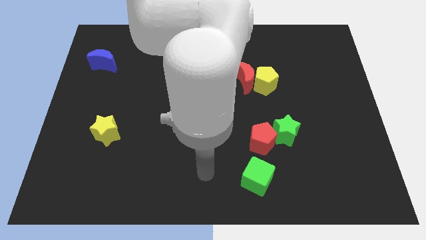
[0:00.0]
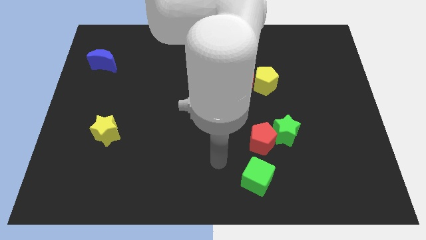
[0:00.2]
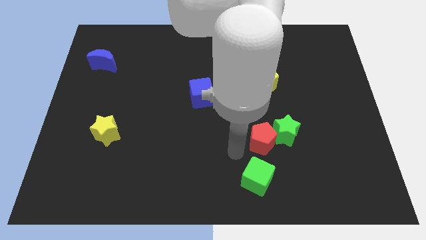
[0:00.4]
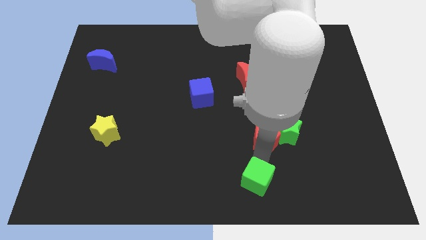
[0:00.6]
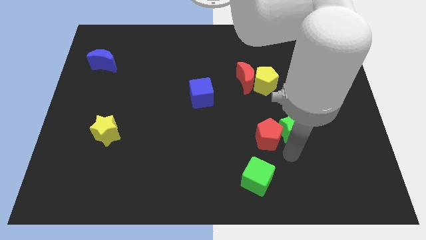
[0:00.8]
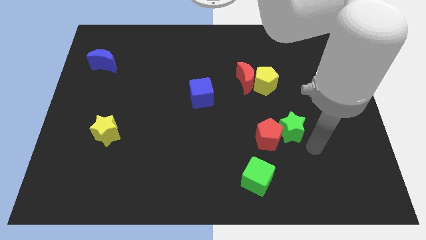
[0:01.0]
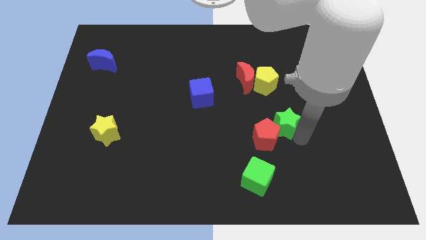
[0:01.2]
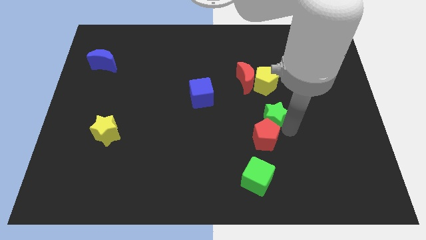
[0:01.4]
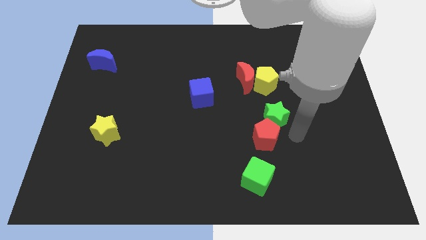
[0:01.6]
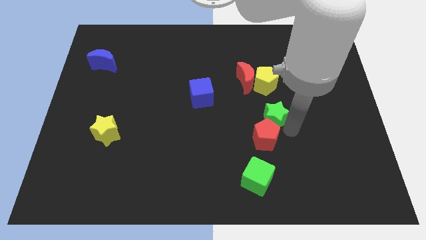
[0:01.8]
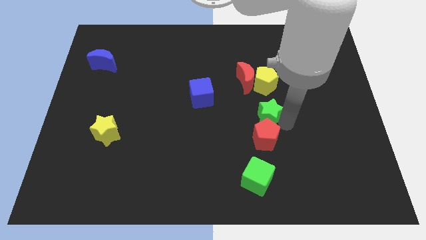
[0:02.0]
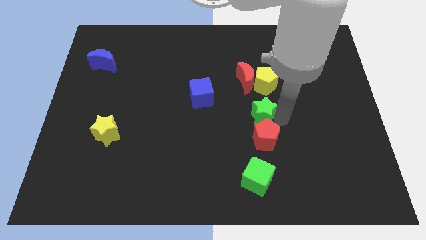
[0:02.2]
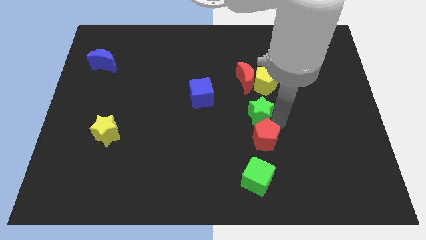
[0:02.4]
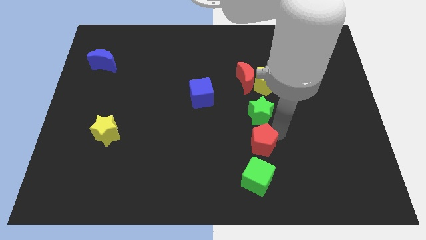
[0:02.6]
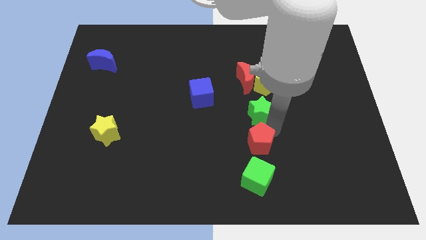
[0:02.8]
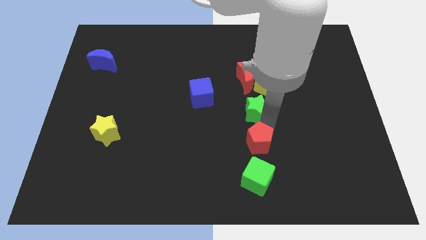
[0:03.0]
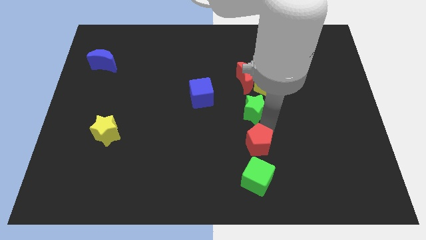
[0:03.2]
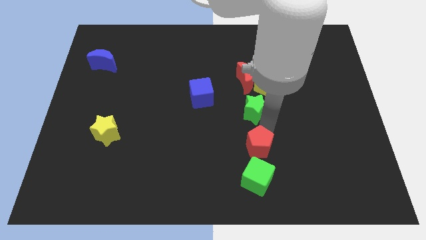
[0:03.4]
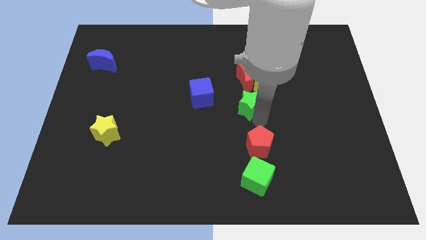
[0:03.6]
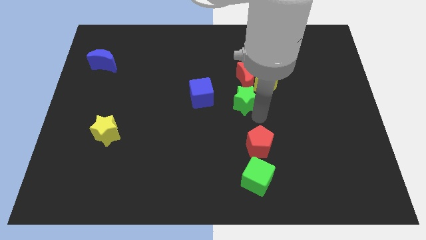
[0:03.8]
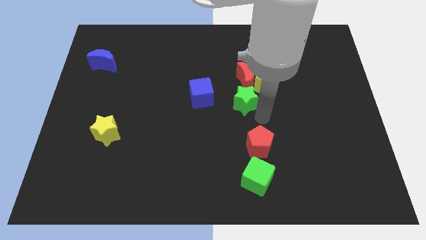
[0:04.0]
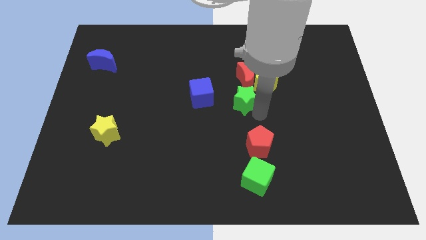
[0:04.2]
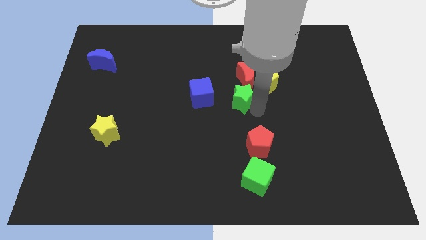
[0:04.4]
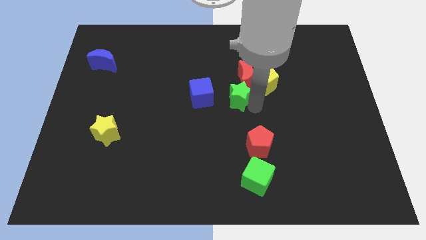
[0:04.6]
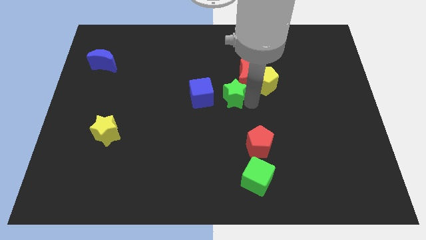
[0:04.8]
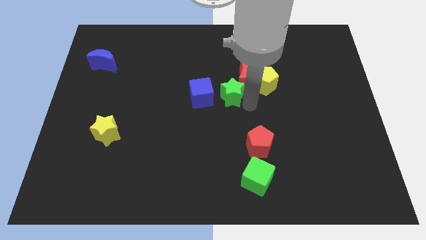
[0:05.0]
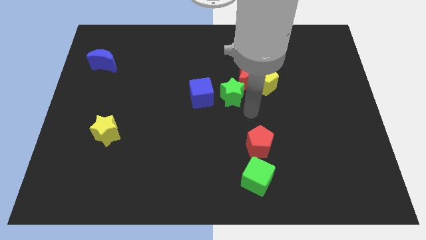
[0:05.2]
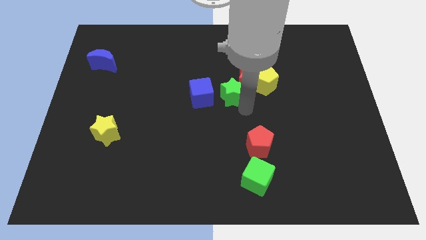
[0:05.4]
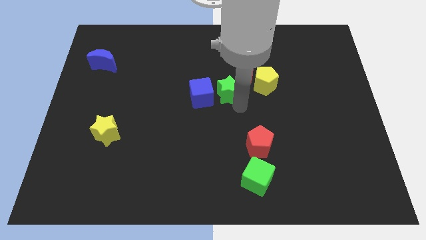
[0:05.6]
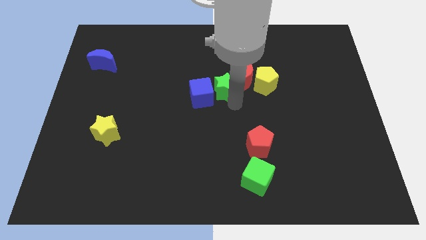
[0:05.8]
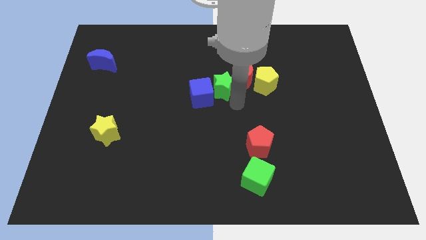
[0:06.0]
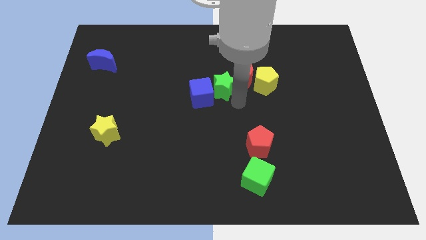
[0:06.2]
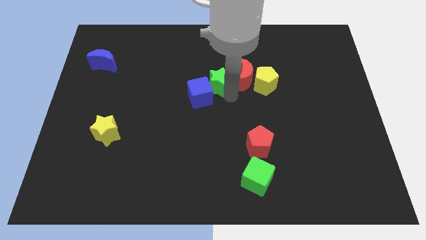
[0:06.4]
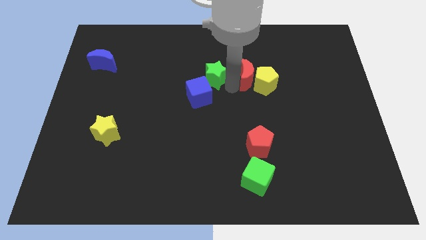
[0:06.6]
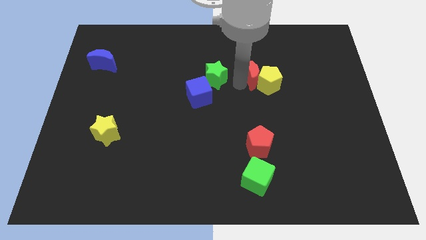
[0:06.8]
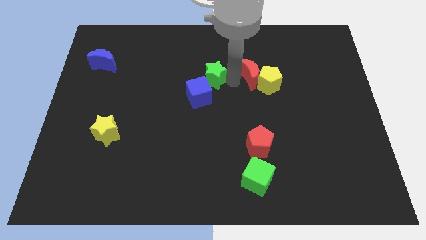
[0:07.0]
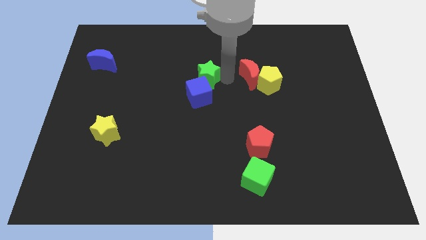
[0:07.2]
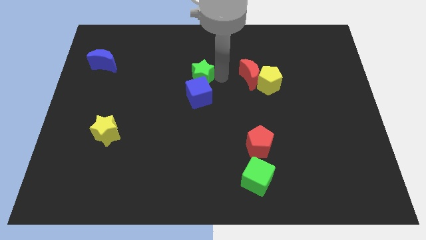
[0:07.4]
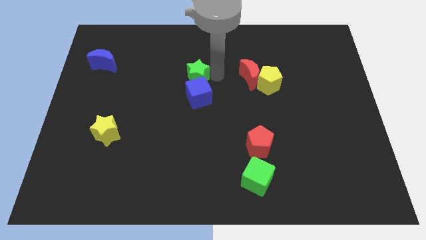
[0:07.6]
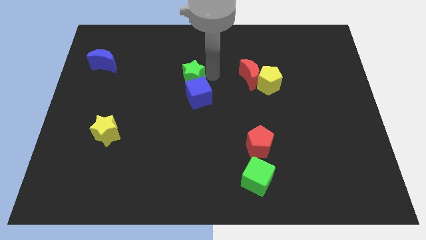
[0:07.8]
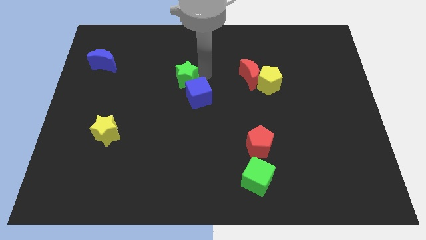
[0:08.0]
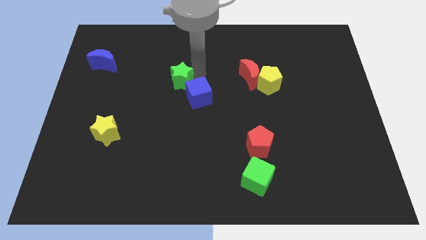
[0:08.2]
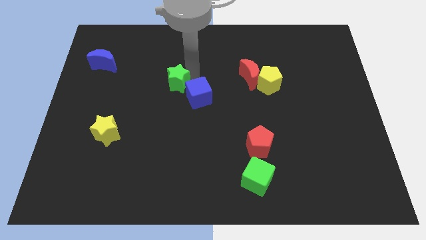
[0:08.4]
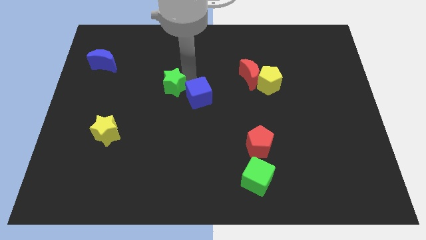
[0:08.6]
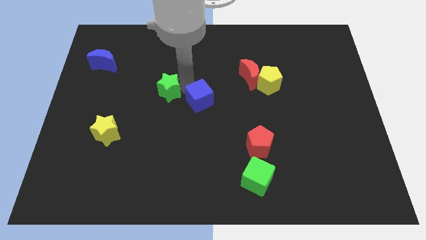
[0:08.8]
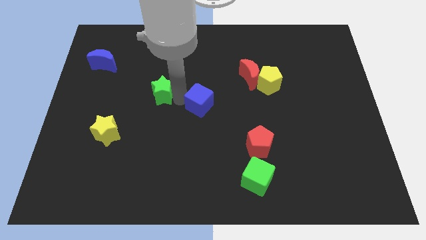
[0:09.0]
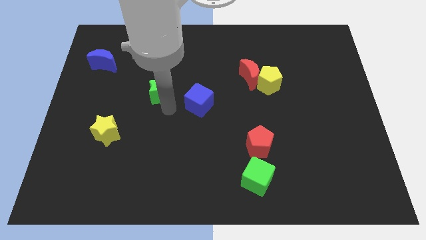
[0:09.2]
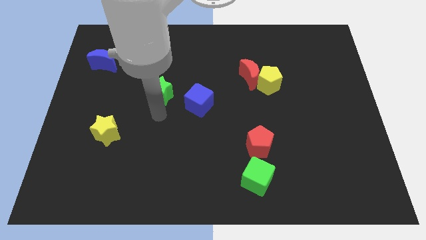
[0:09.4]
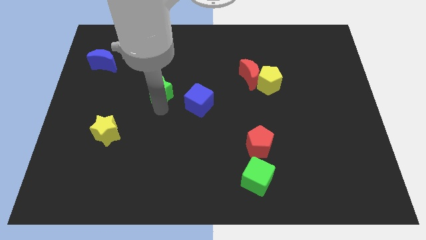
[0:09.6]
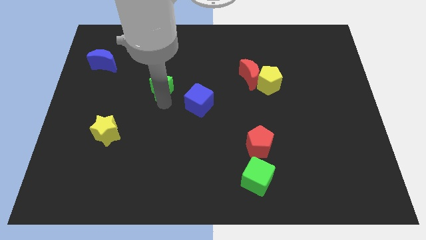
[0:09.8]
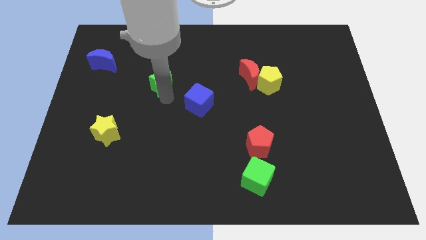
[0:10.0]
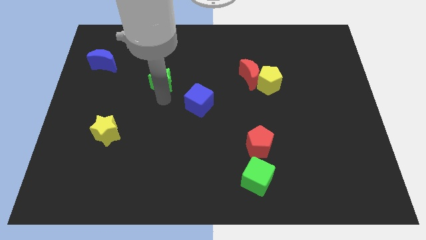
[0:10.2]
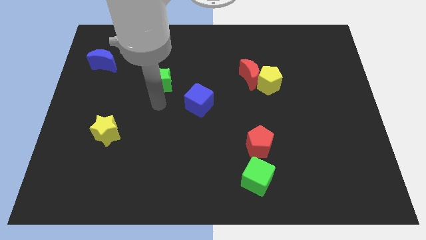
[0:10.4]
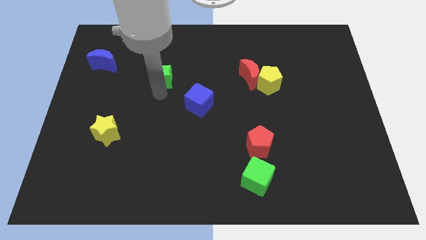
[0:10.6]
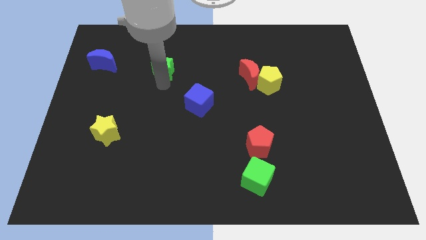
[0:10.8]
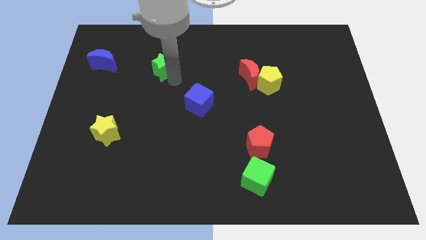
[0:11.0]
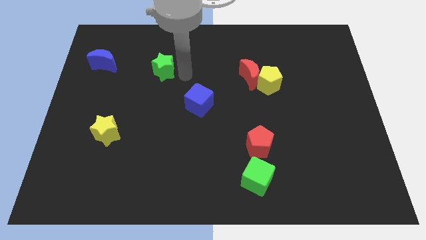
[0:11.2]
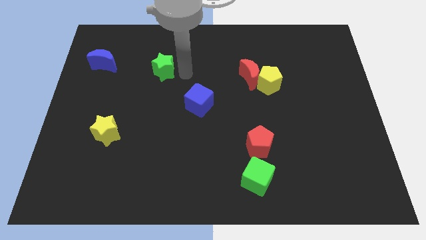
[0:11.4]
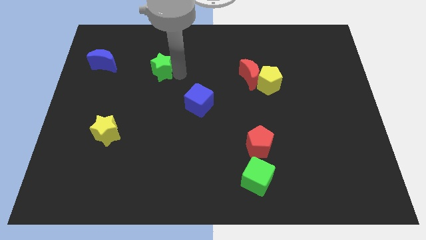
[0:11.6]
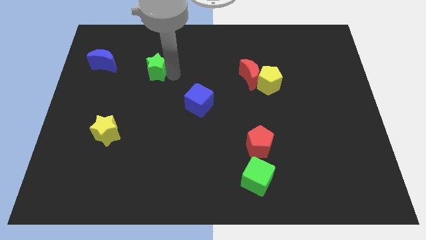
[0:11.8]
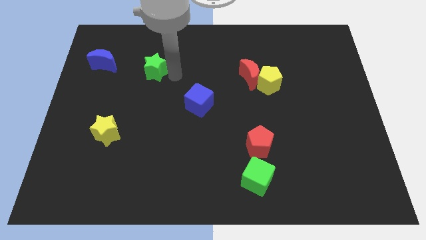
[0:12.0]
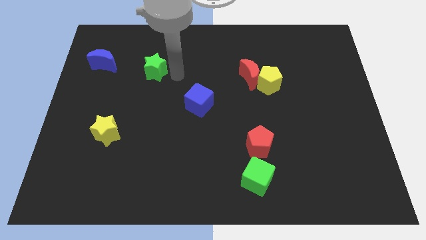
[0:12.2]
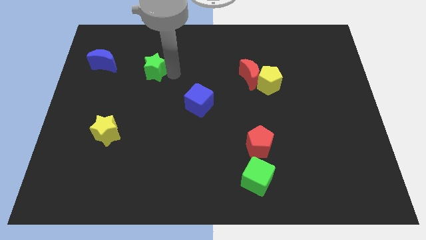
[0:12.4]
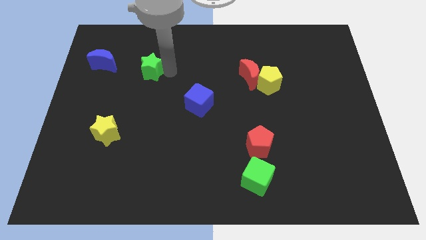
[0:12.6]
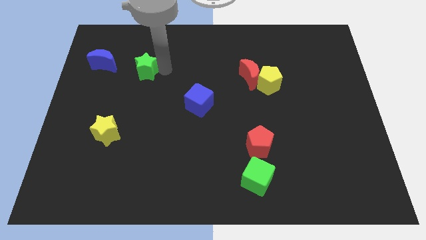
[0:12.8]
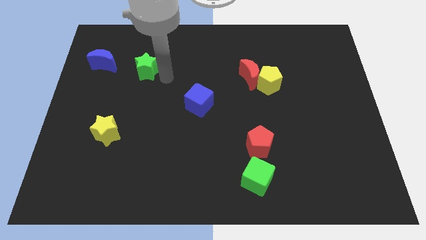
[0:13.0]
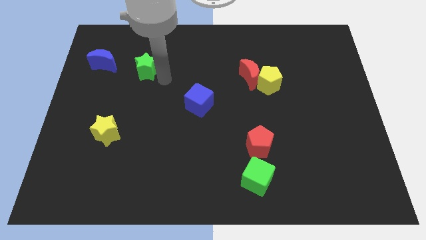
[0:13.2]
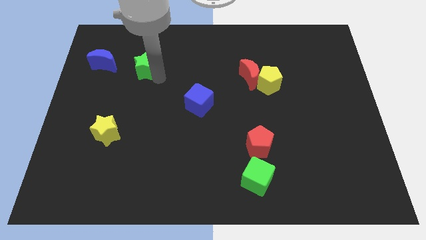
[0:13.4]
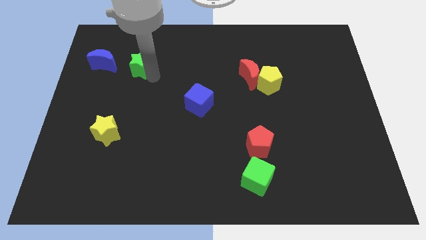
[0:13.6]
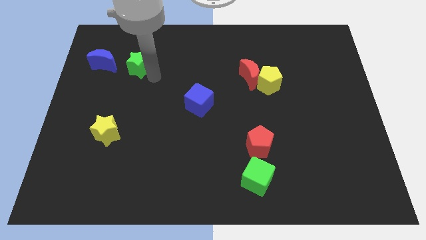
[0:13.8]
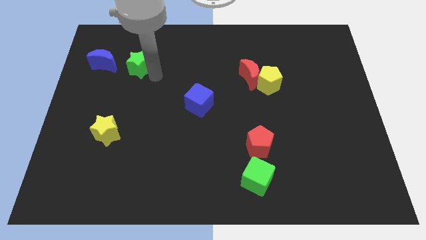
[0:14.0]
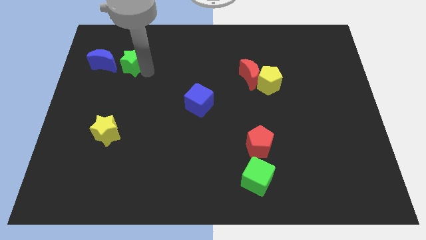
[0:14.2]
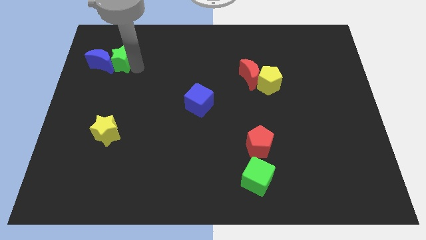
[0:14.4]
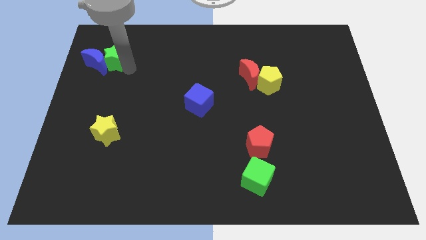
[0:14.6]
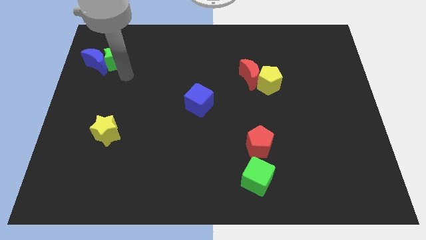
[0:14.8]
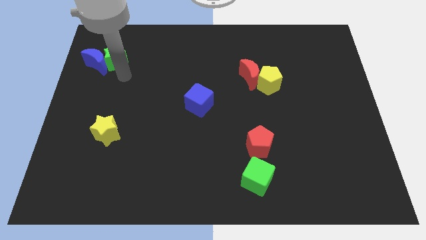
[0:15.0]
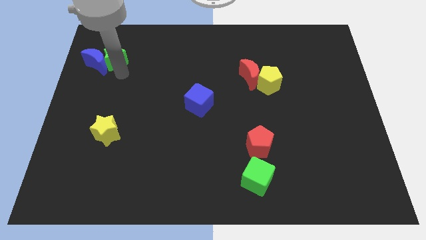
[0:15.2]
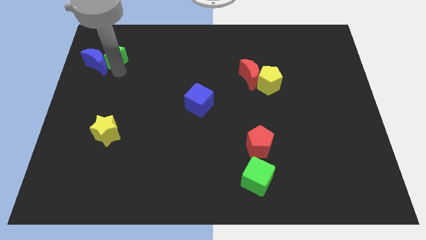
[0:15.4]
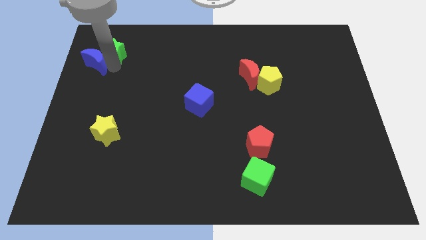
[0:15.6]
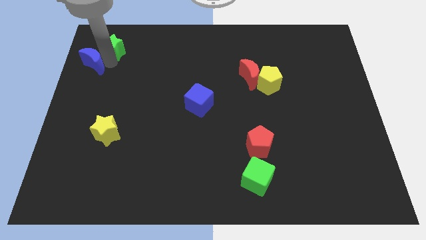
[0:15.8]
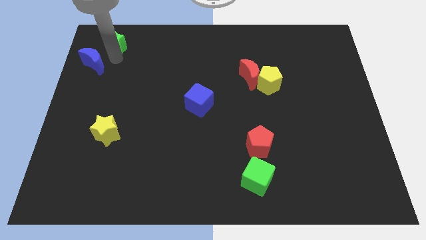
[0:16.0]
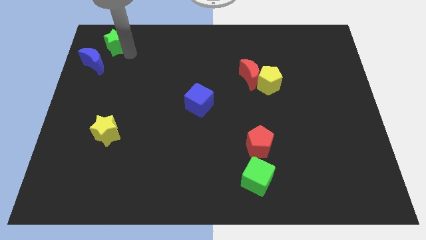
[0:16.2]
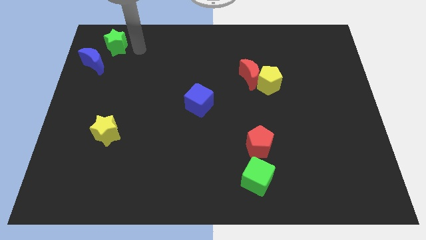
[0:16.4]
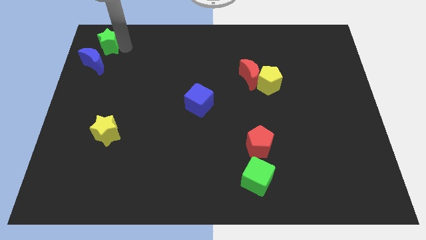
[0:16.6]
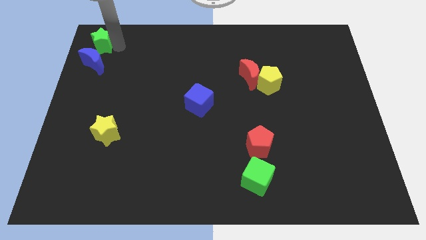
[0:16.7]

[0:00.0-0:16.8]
move the green star to the top left corner
